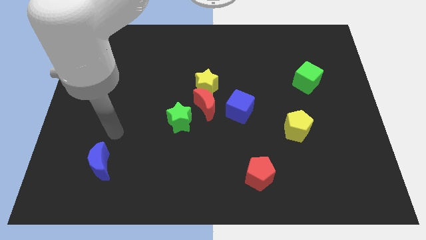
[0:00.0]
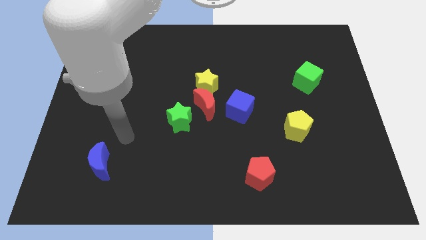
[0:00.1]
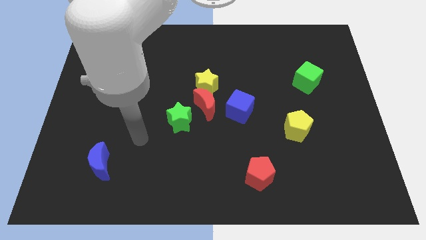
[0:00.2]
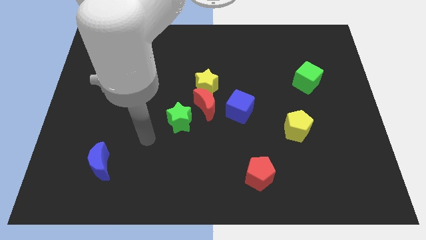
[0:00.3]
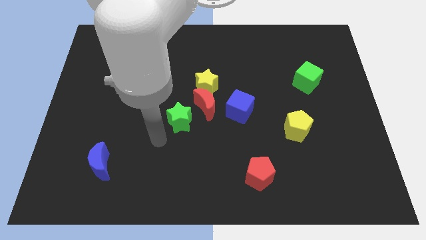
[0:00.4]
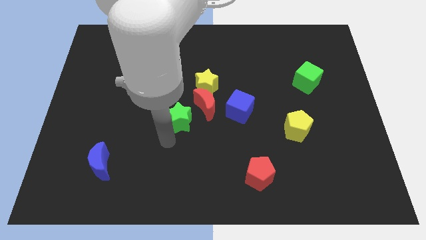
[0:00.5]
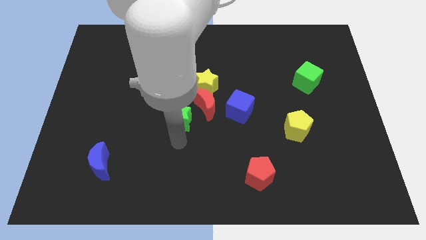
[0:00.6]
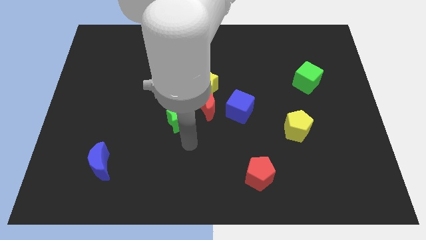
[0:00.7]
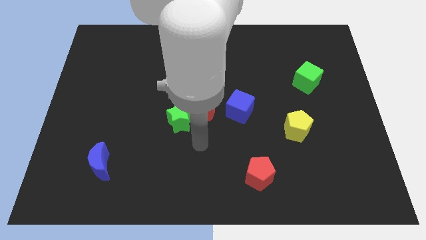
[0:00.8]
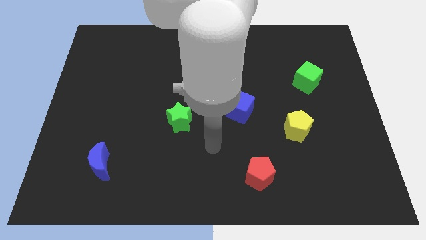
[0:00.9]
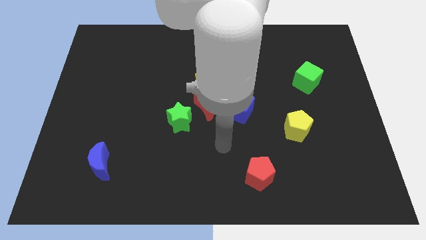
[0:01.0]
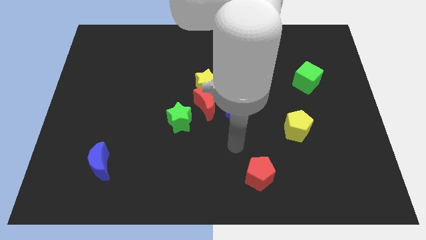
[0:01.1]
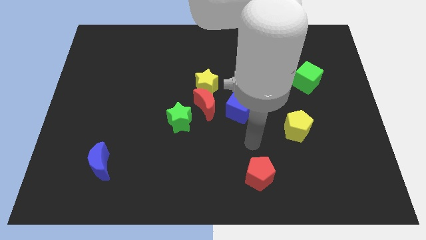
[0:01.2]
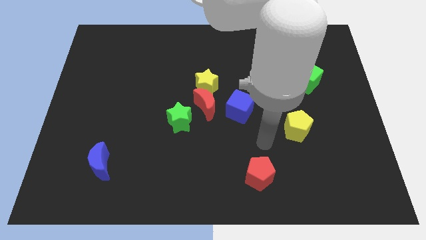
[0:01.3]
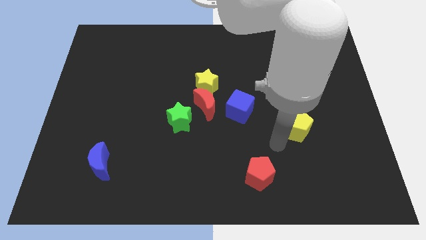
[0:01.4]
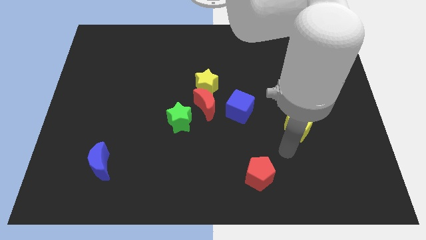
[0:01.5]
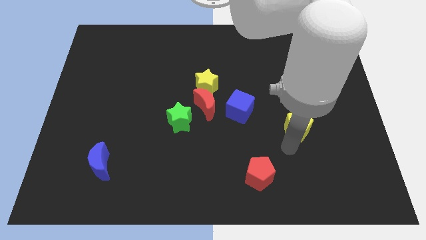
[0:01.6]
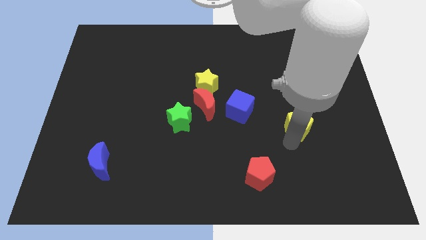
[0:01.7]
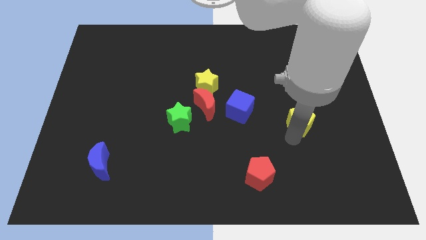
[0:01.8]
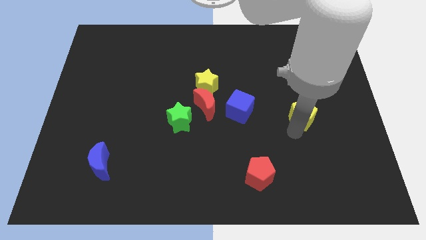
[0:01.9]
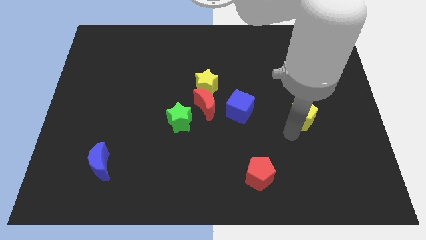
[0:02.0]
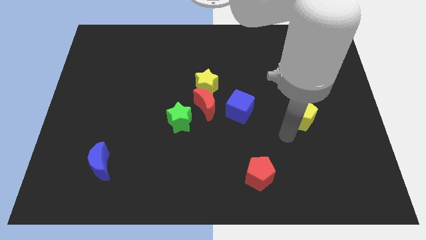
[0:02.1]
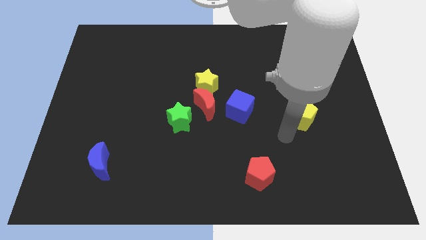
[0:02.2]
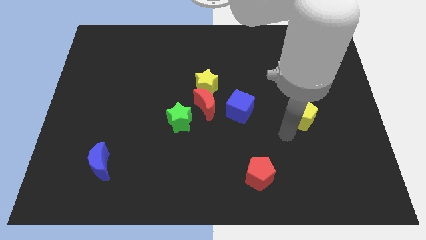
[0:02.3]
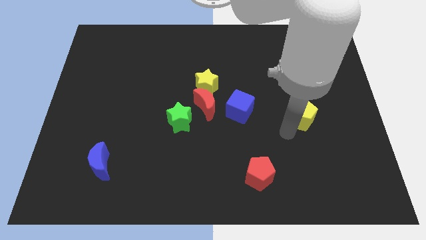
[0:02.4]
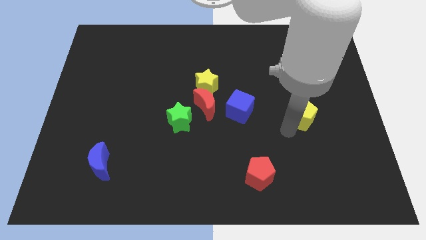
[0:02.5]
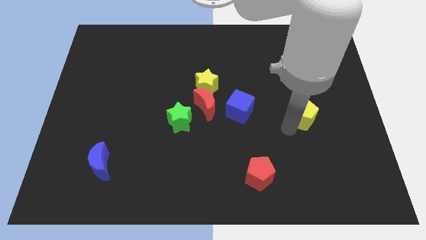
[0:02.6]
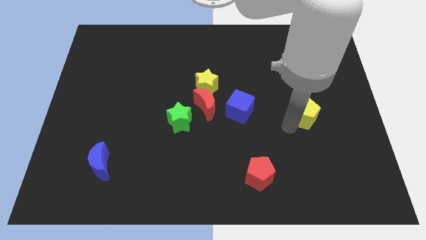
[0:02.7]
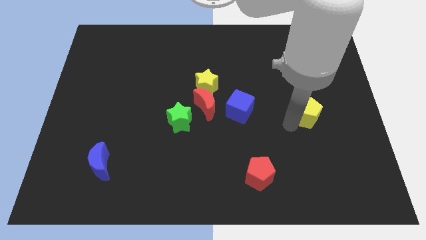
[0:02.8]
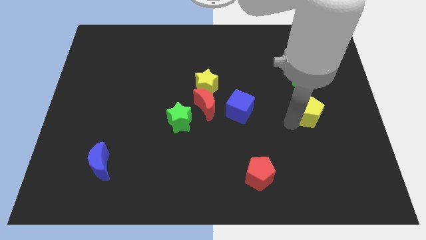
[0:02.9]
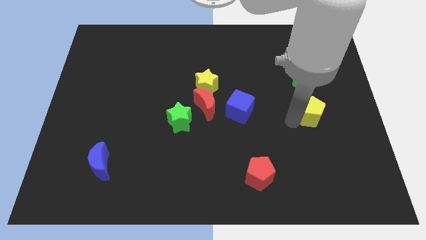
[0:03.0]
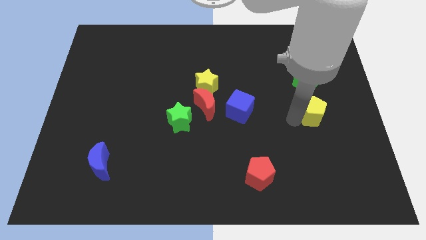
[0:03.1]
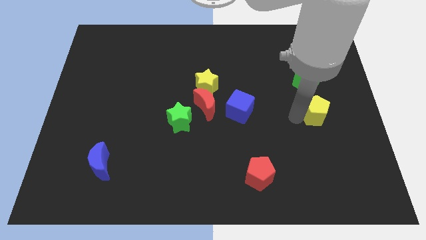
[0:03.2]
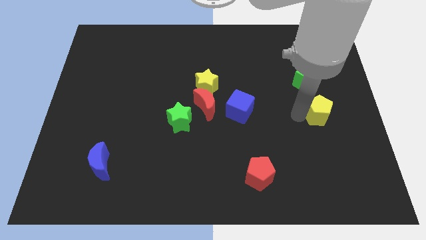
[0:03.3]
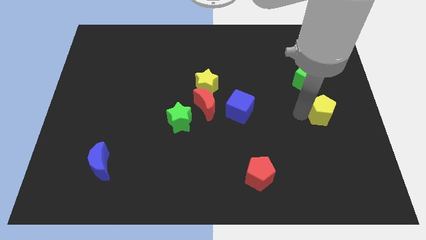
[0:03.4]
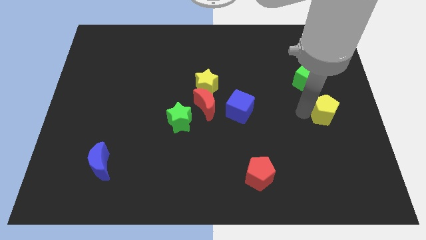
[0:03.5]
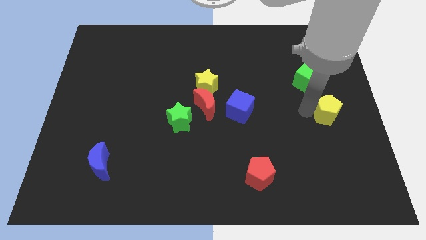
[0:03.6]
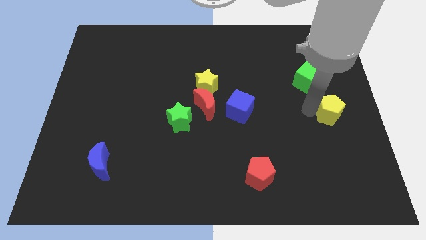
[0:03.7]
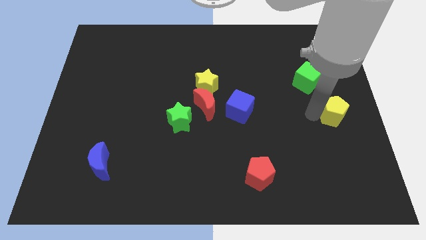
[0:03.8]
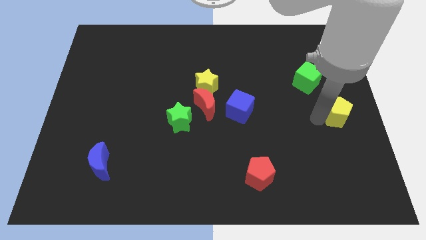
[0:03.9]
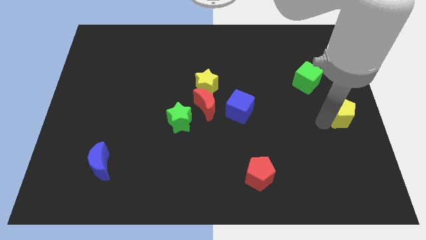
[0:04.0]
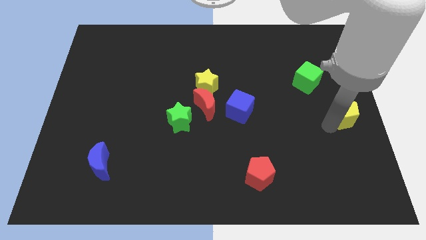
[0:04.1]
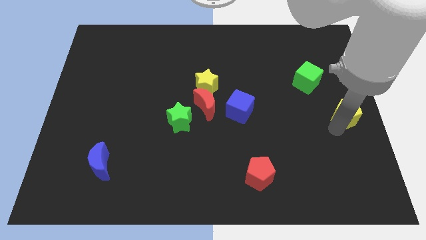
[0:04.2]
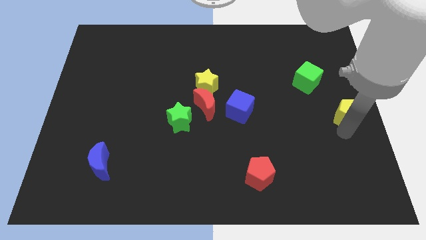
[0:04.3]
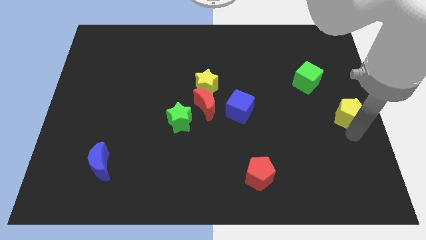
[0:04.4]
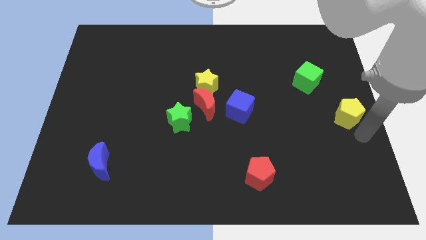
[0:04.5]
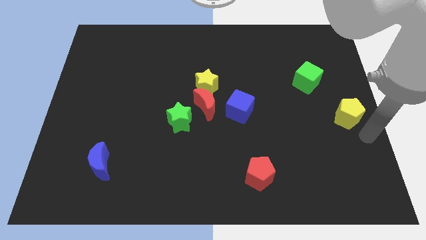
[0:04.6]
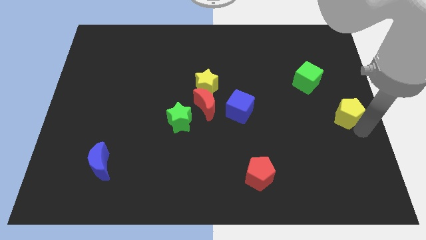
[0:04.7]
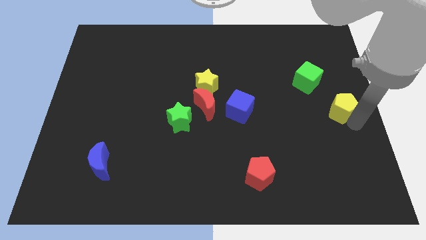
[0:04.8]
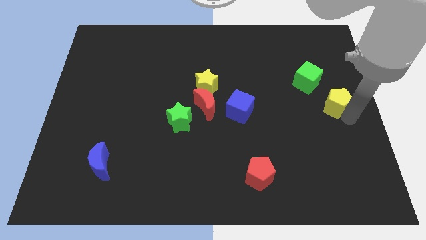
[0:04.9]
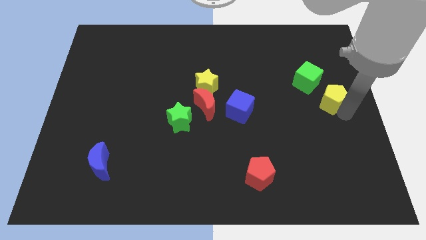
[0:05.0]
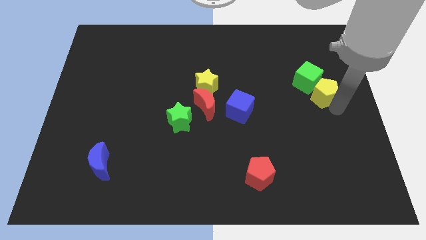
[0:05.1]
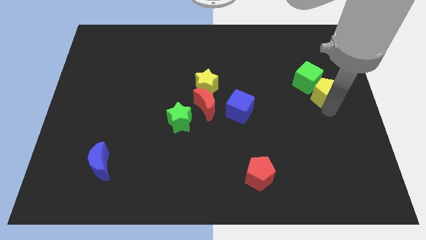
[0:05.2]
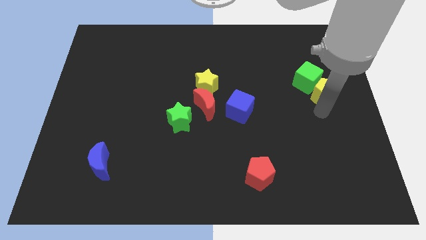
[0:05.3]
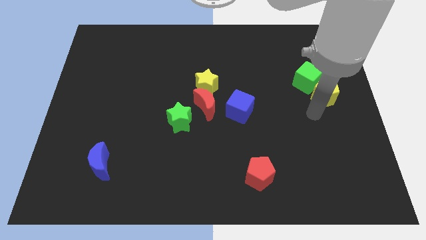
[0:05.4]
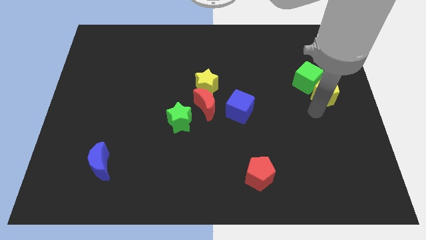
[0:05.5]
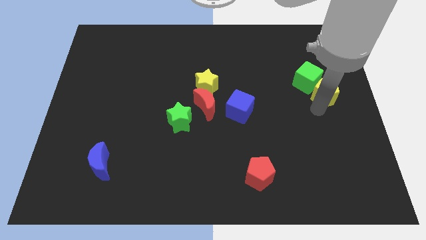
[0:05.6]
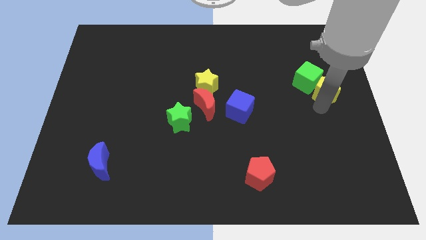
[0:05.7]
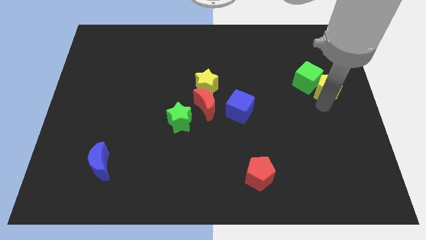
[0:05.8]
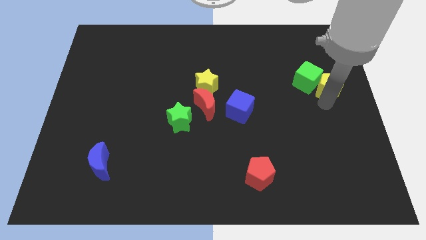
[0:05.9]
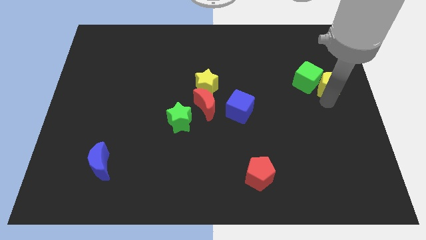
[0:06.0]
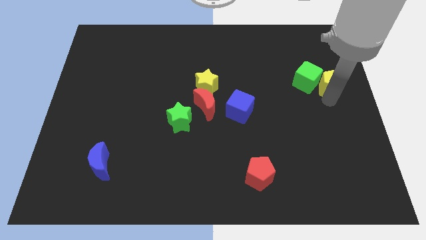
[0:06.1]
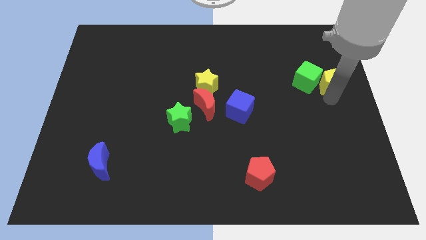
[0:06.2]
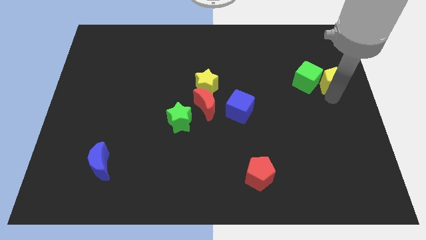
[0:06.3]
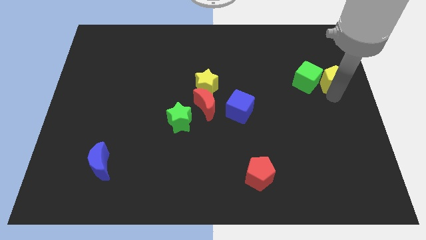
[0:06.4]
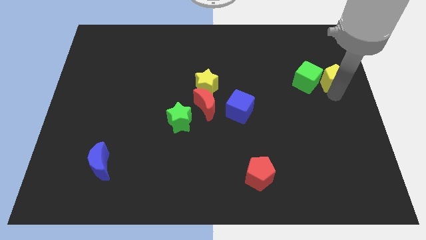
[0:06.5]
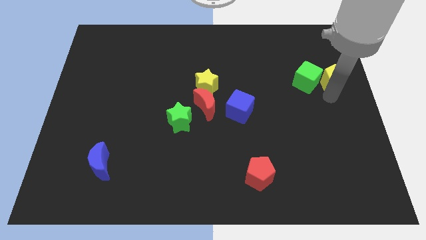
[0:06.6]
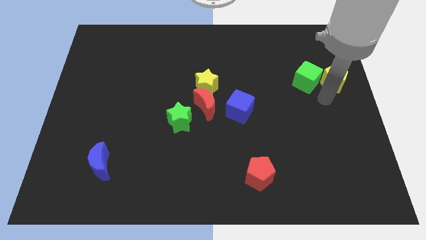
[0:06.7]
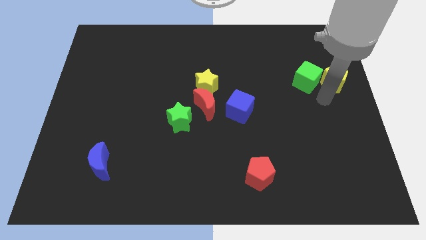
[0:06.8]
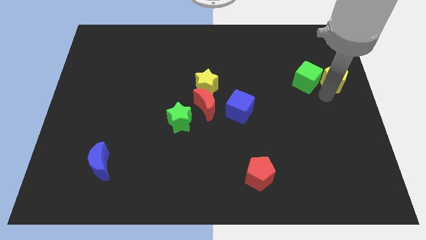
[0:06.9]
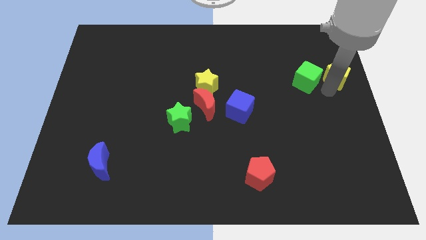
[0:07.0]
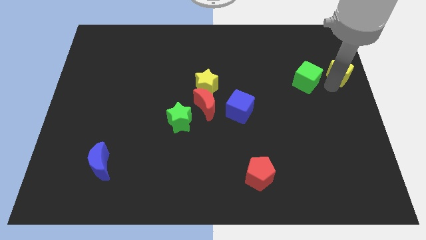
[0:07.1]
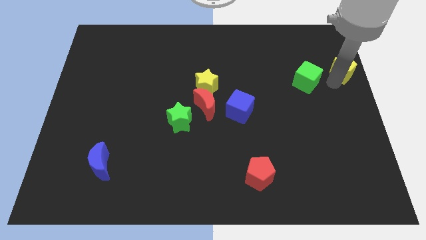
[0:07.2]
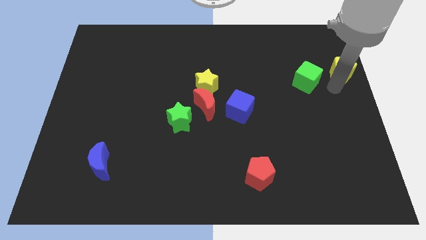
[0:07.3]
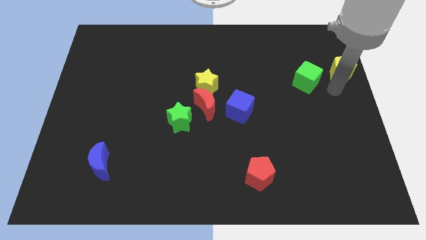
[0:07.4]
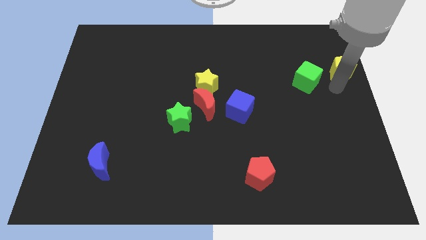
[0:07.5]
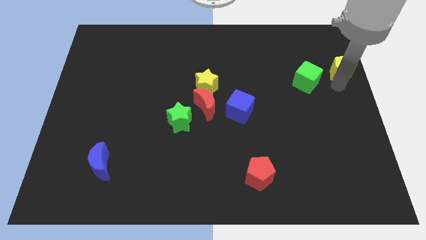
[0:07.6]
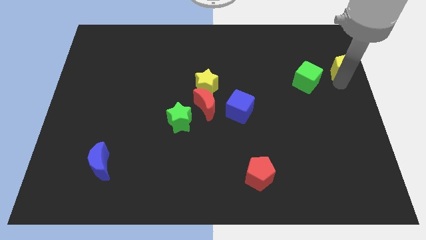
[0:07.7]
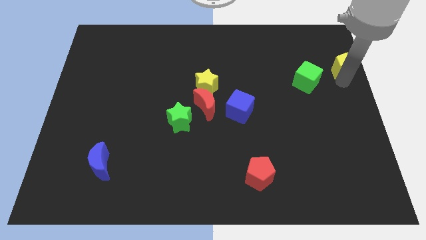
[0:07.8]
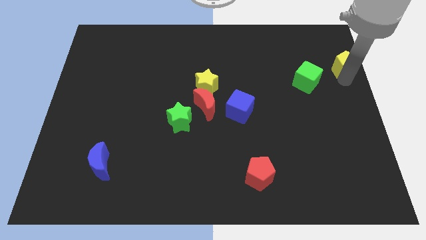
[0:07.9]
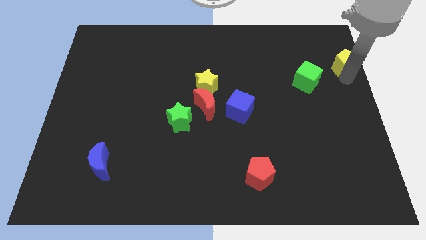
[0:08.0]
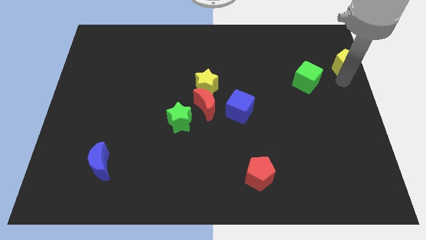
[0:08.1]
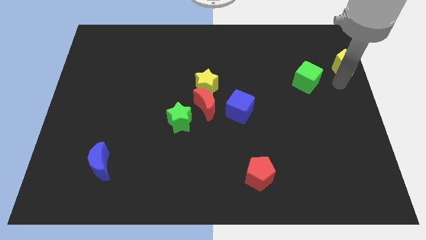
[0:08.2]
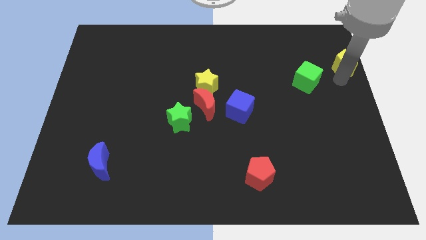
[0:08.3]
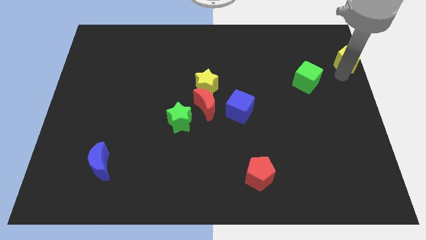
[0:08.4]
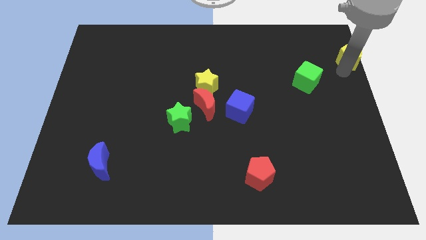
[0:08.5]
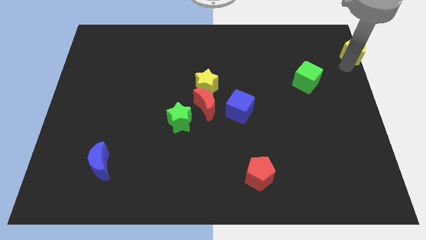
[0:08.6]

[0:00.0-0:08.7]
move the yellow pentagon to the top right of the board
